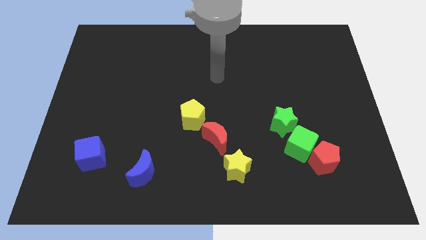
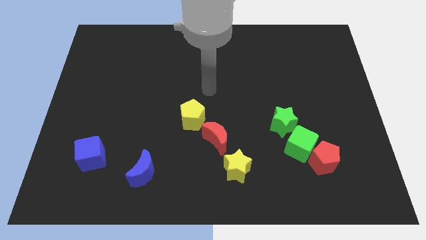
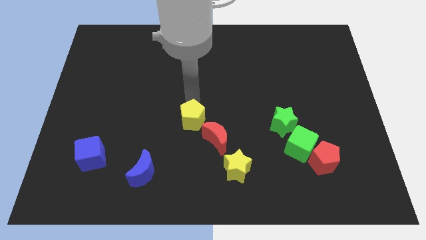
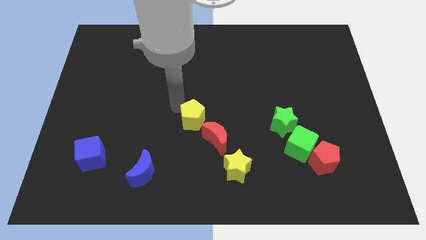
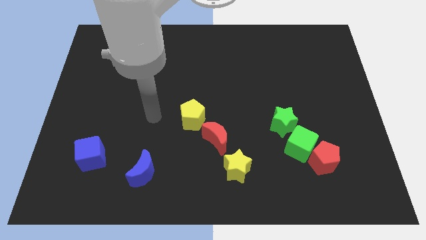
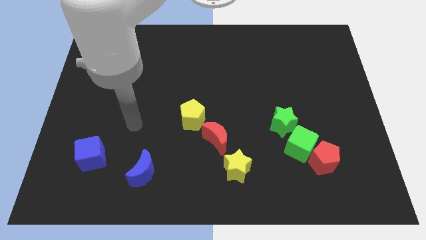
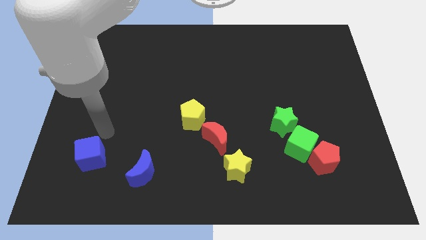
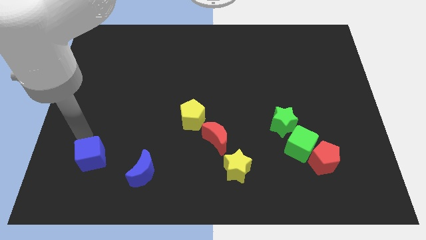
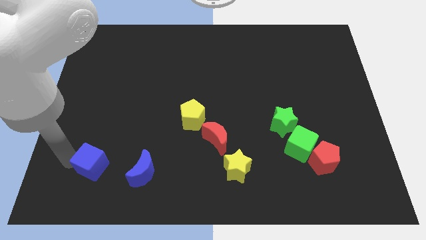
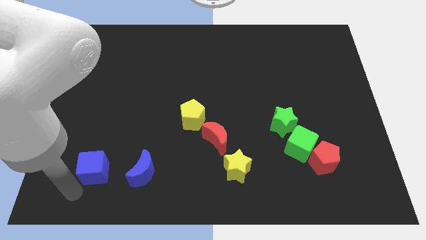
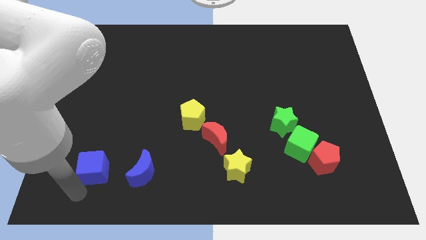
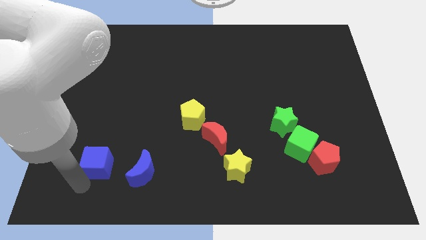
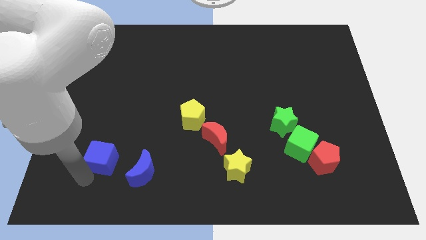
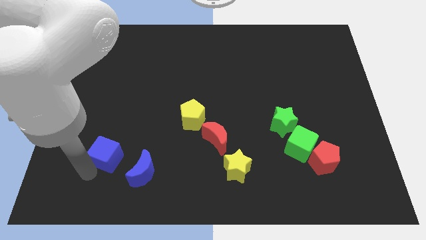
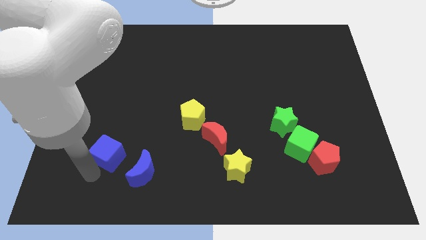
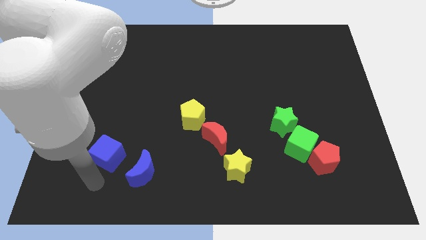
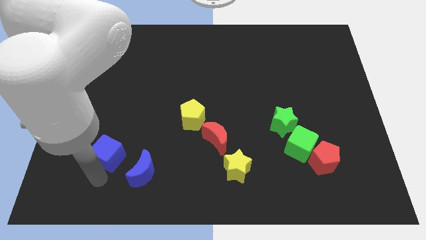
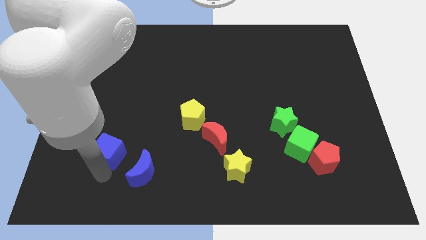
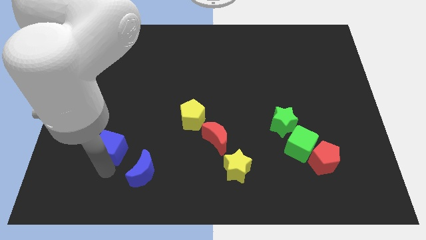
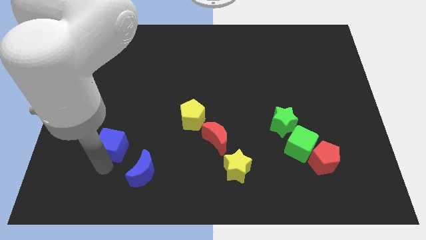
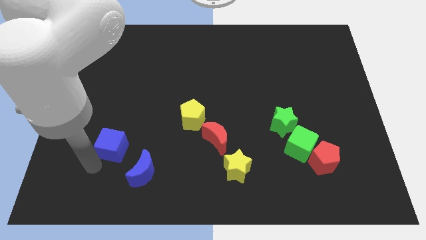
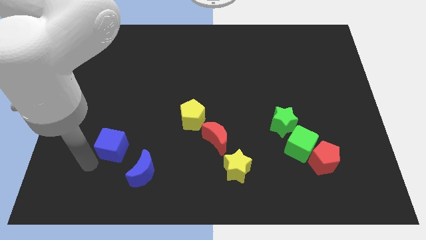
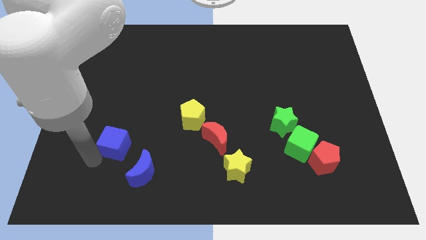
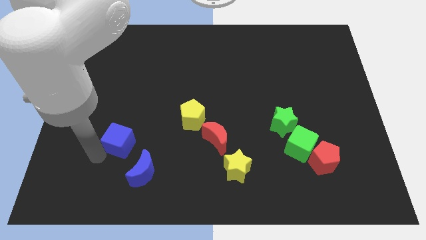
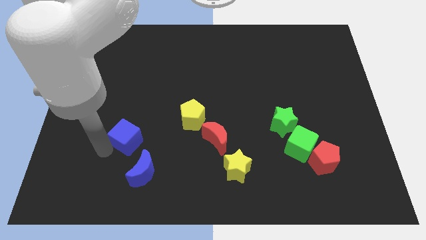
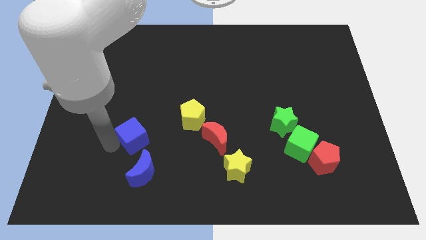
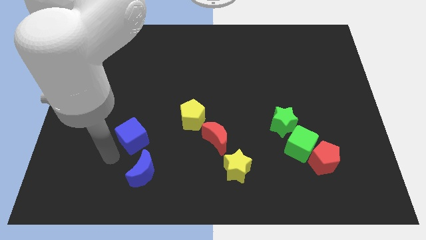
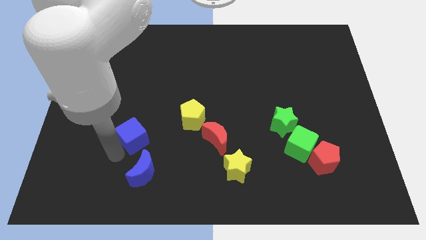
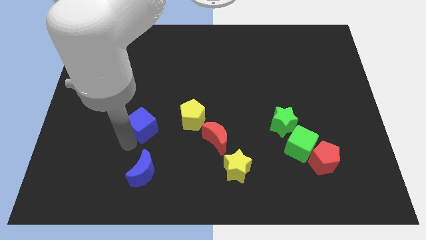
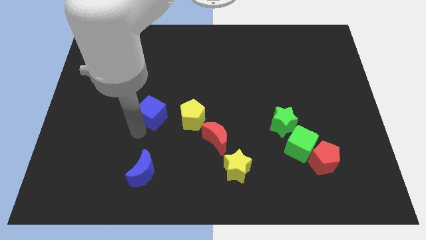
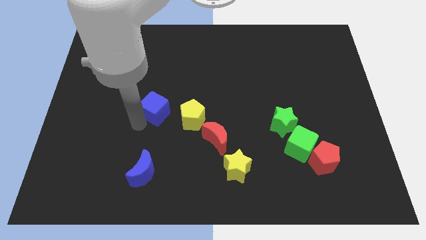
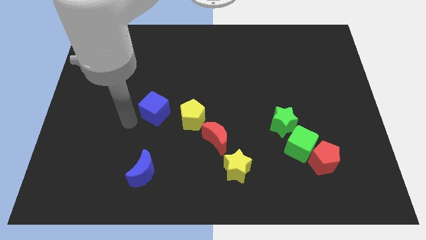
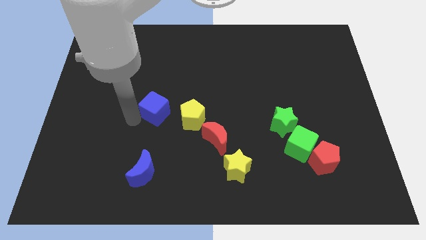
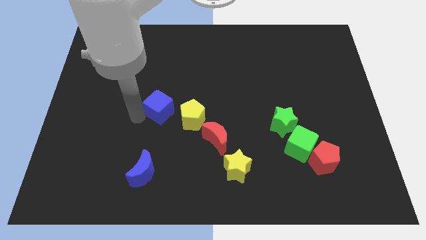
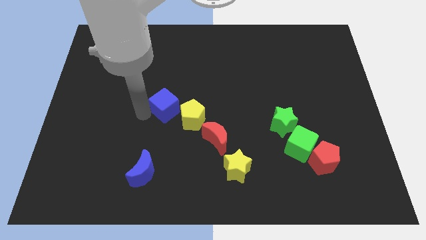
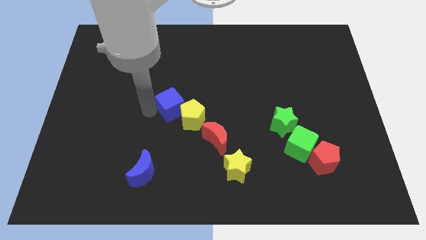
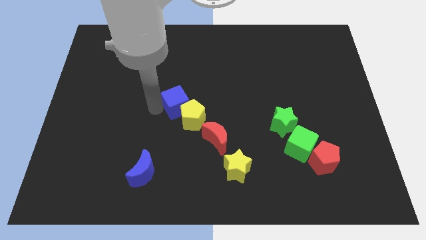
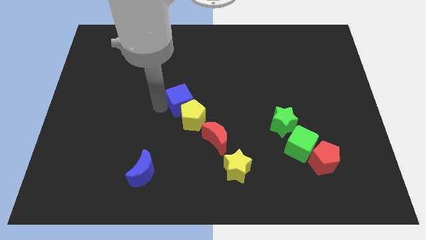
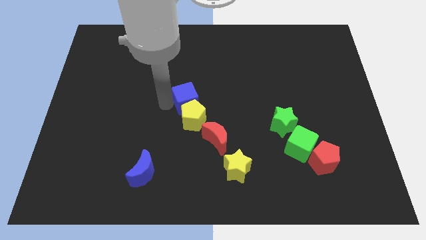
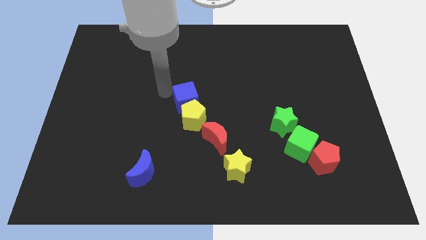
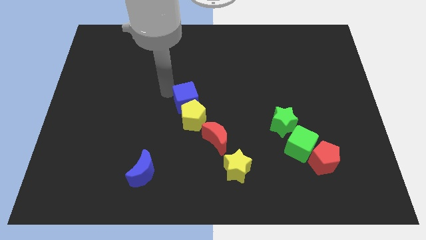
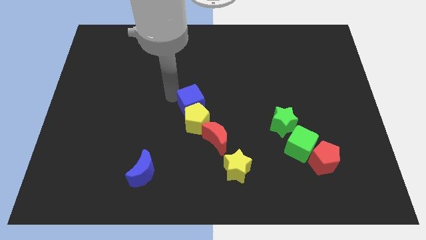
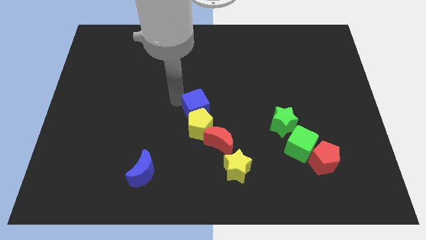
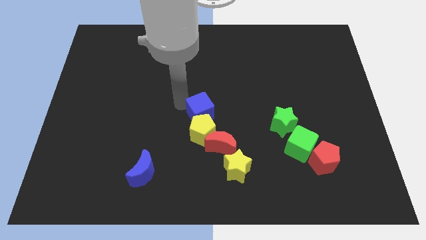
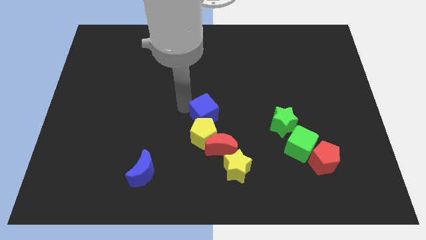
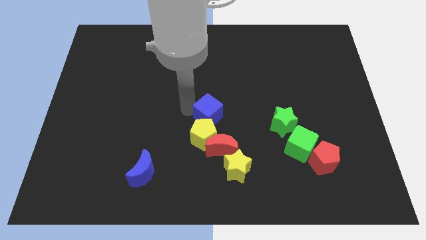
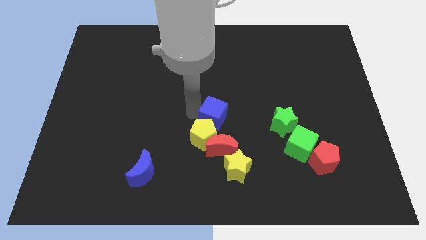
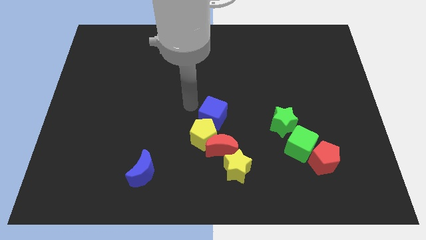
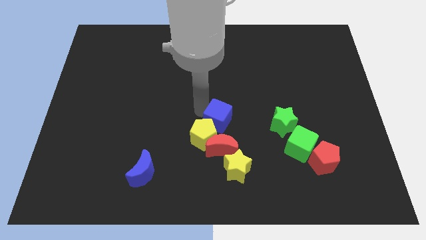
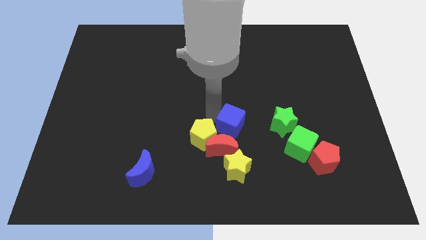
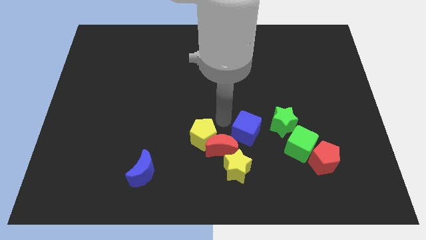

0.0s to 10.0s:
slide the blue cube right of the red moon

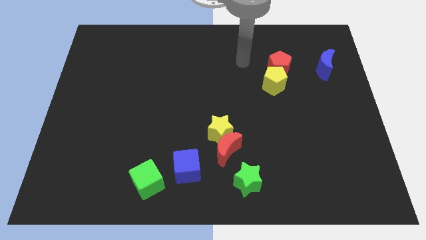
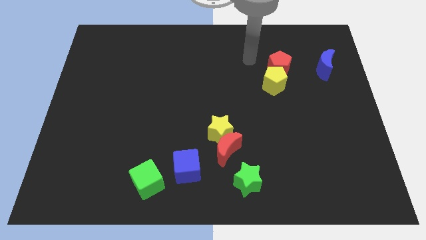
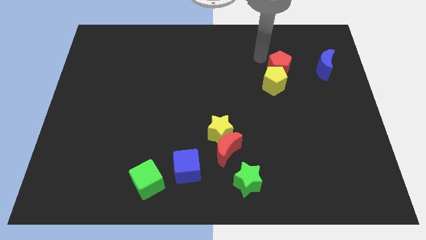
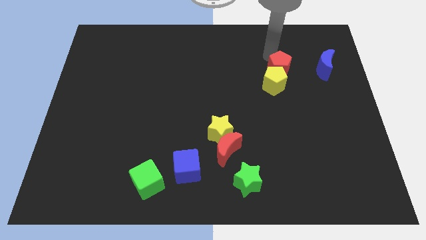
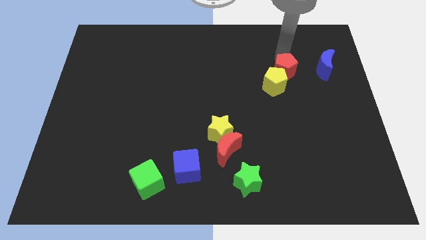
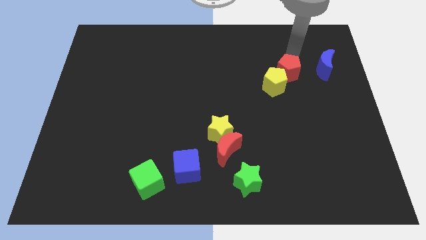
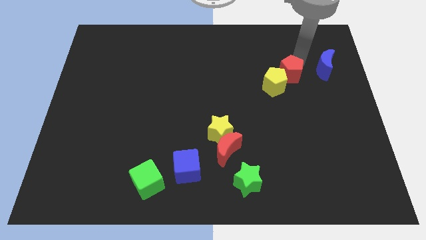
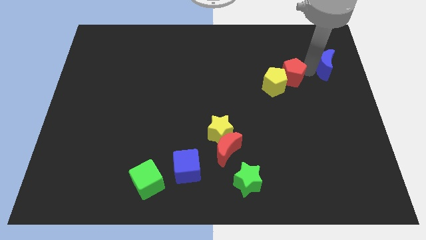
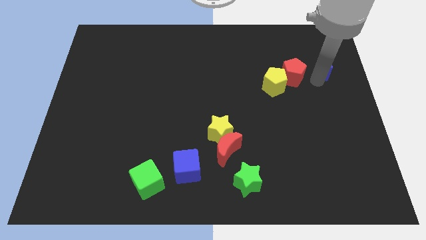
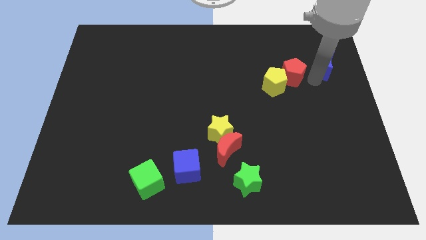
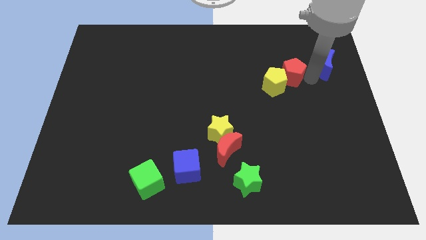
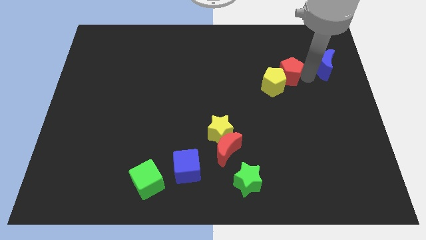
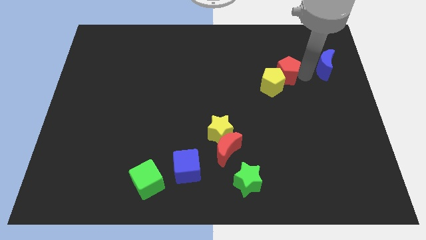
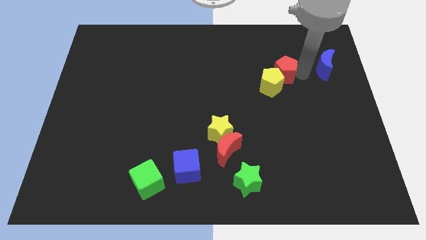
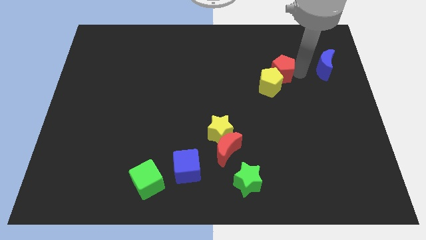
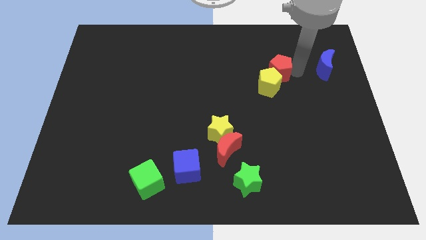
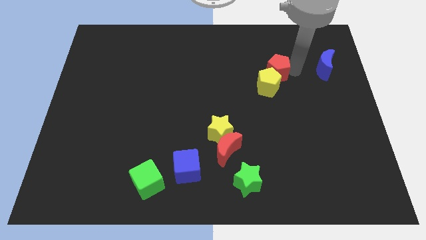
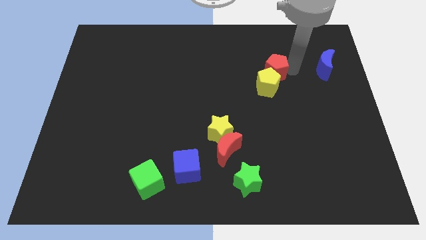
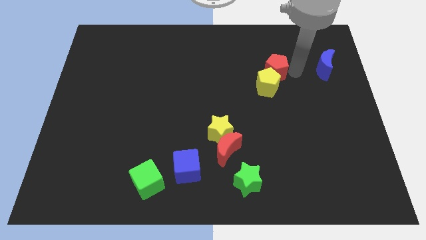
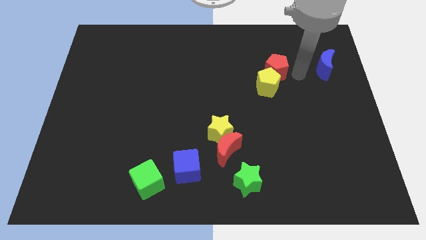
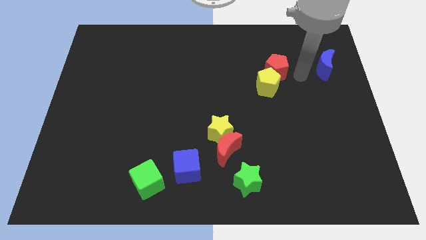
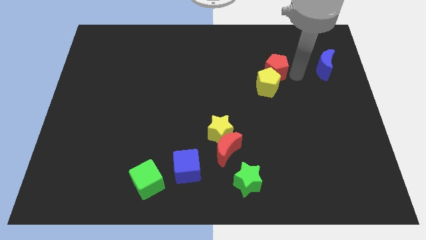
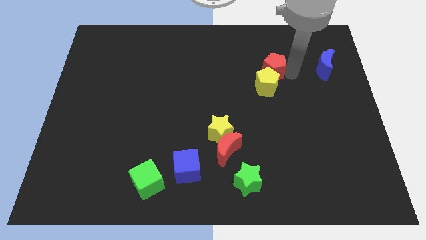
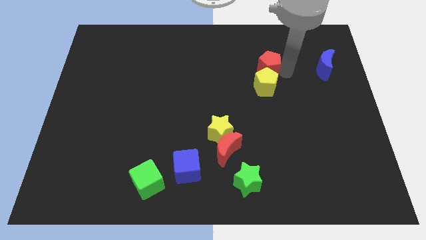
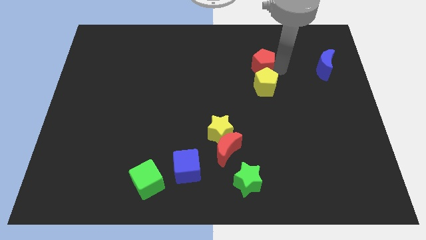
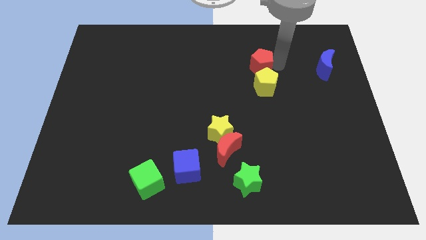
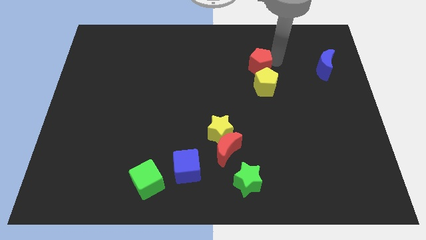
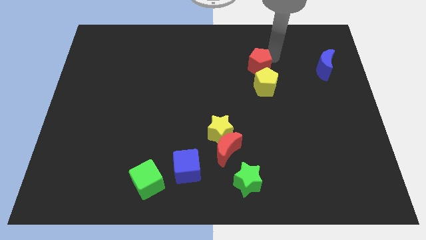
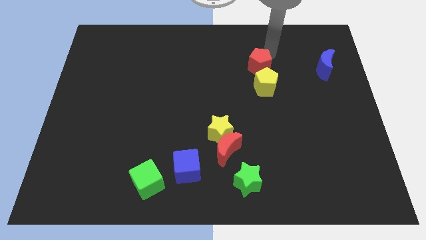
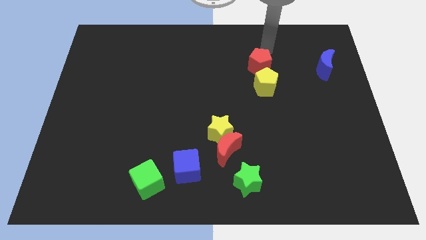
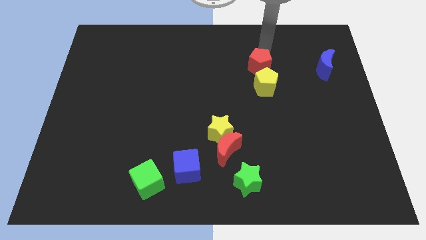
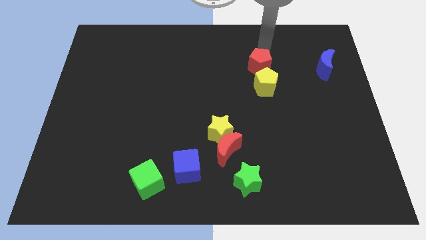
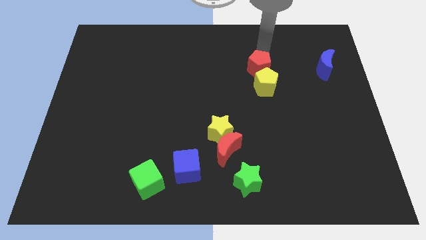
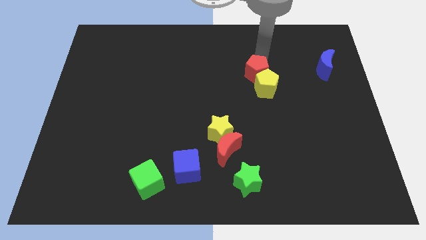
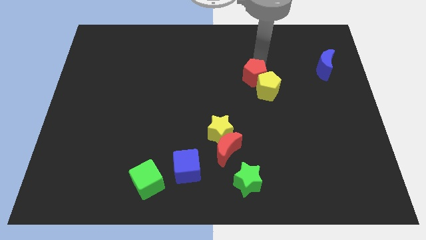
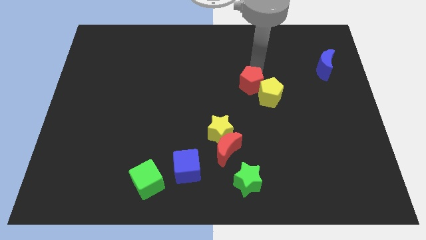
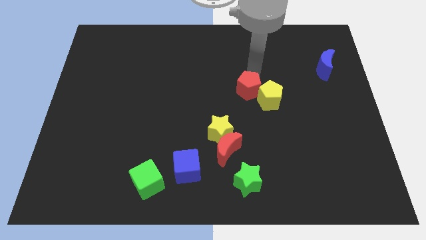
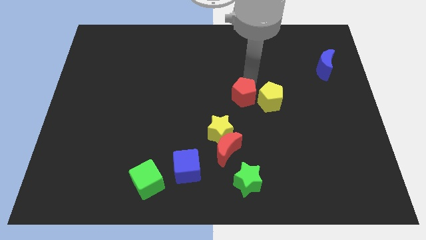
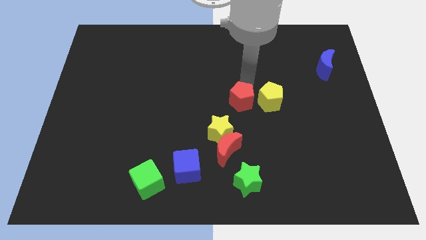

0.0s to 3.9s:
move the red pentagon diagonally down and to the left of the yellow pentagon
